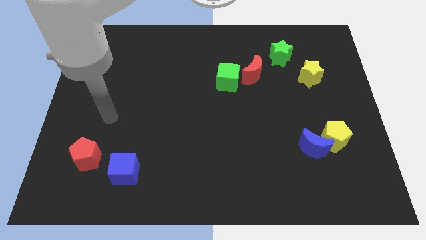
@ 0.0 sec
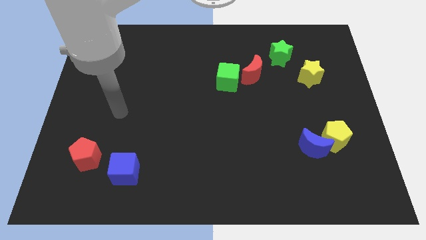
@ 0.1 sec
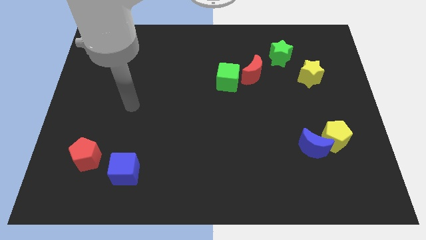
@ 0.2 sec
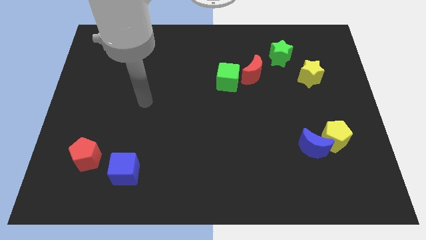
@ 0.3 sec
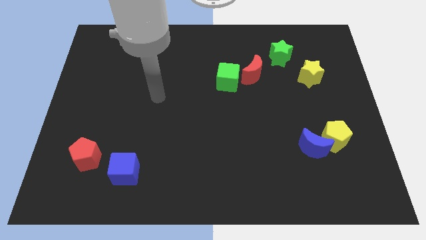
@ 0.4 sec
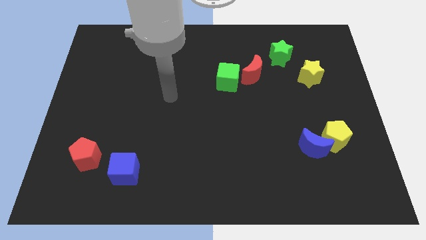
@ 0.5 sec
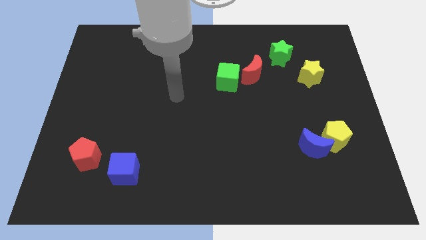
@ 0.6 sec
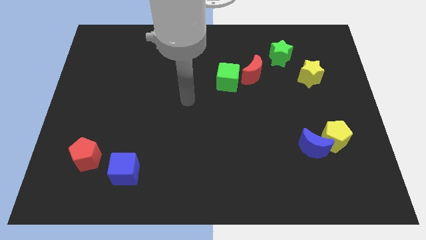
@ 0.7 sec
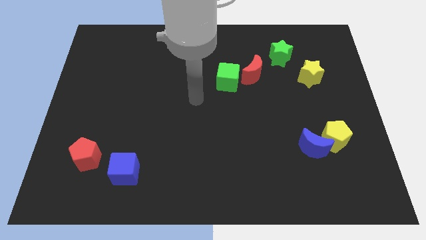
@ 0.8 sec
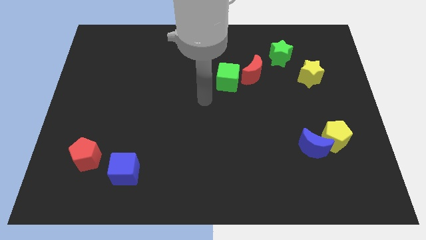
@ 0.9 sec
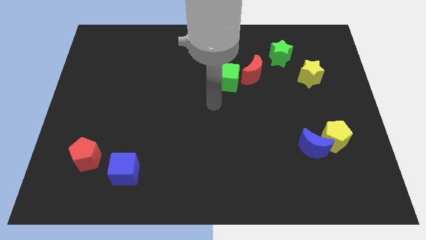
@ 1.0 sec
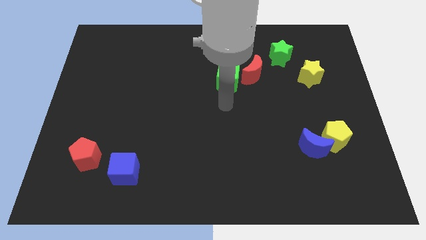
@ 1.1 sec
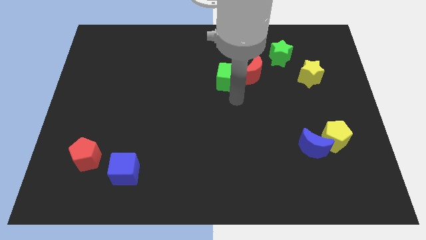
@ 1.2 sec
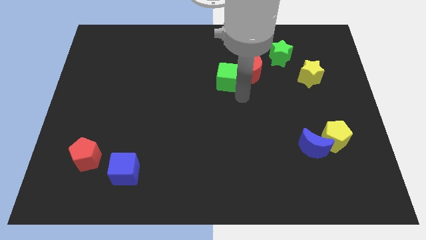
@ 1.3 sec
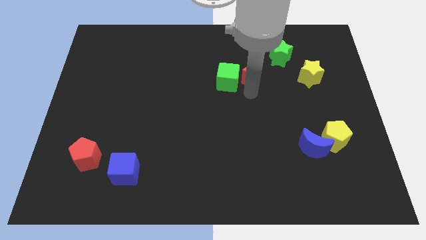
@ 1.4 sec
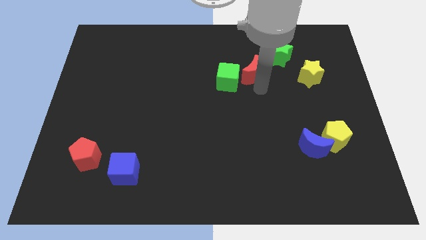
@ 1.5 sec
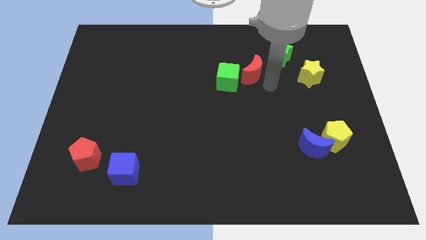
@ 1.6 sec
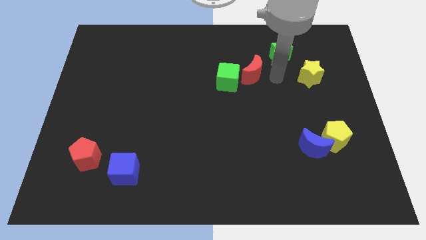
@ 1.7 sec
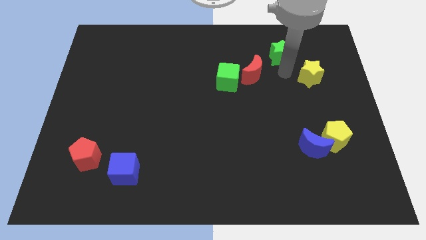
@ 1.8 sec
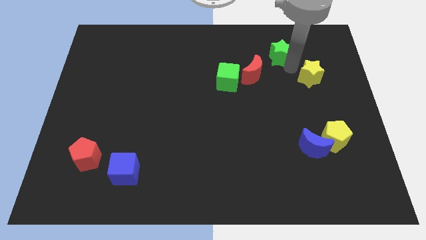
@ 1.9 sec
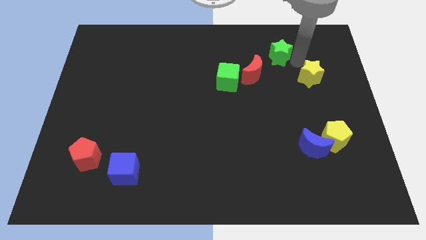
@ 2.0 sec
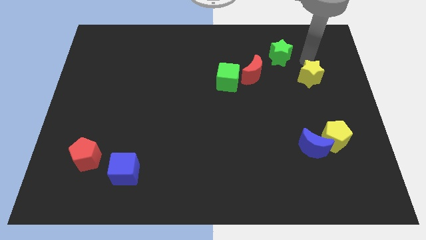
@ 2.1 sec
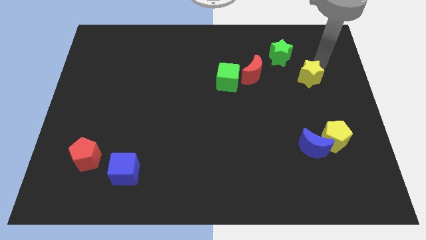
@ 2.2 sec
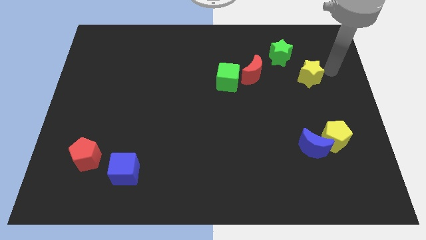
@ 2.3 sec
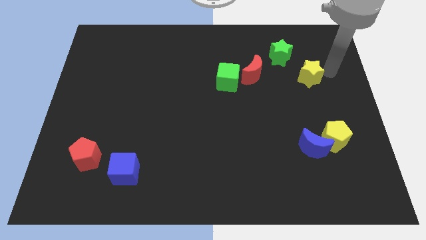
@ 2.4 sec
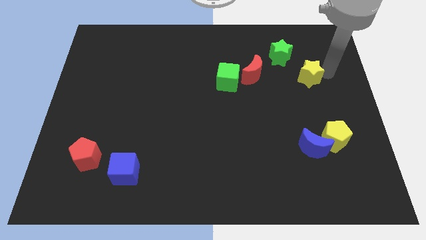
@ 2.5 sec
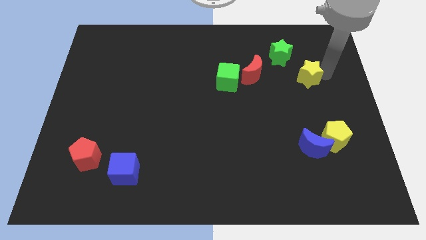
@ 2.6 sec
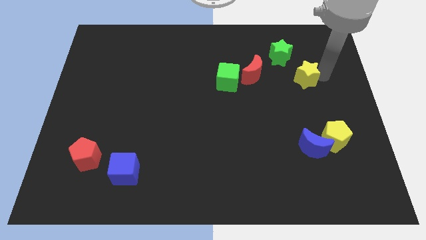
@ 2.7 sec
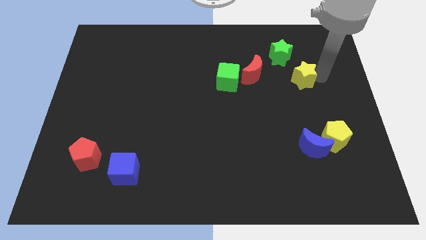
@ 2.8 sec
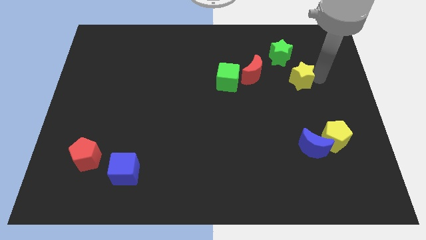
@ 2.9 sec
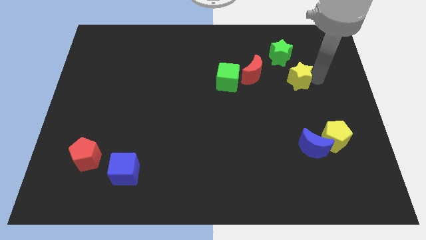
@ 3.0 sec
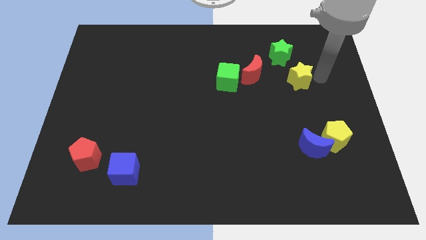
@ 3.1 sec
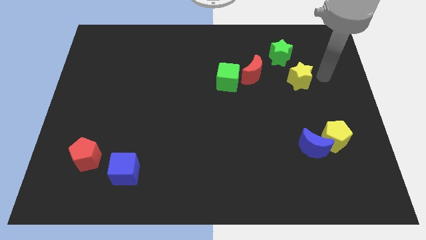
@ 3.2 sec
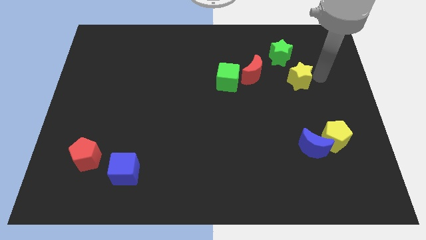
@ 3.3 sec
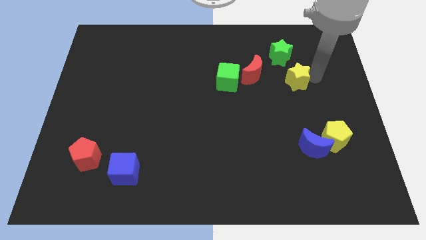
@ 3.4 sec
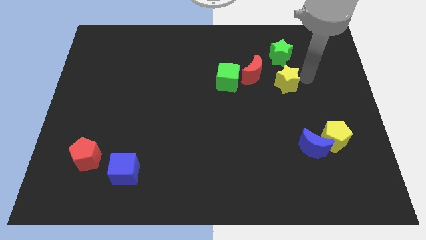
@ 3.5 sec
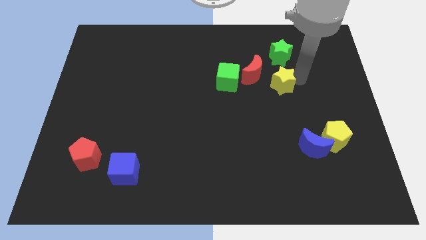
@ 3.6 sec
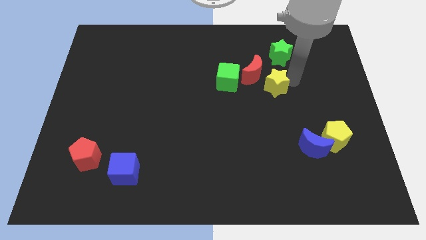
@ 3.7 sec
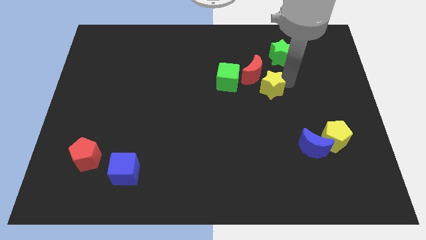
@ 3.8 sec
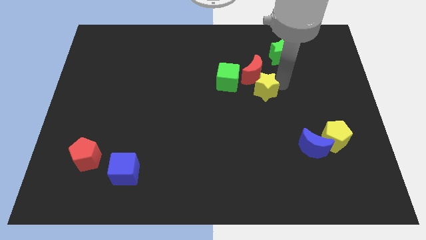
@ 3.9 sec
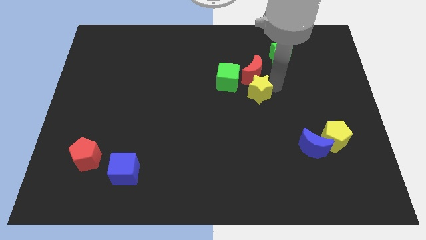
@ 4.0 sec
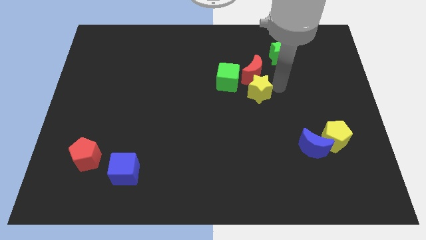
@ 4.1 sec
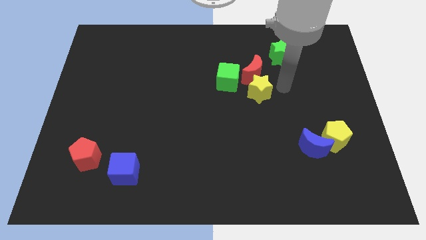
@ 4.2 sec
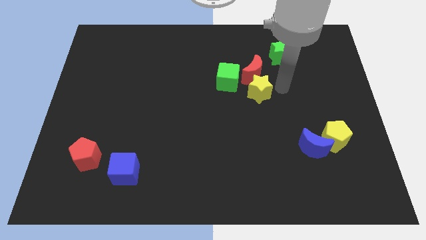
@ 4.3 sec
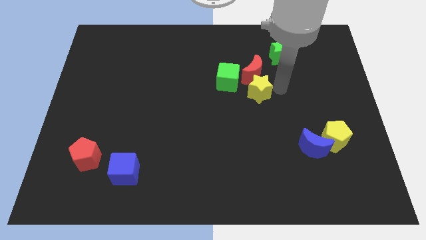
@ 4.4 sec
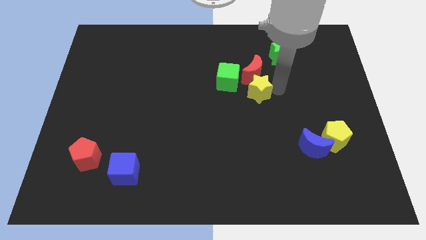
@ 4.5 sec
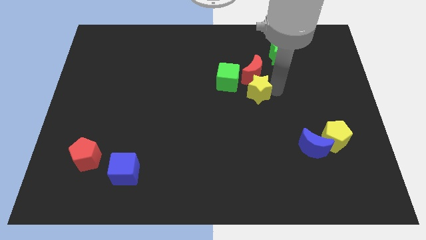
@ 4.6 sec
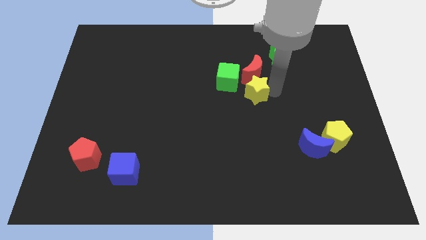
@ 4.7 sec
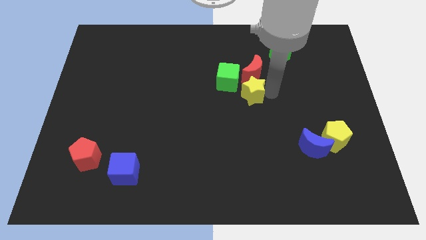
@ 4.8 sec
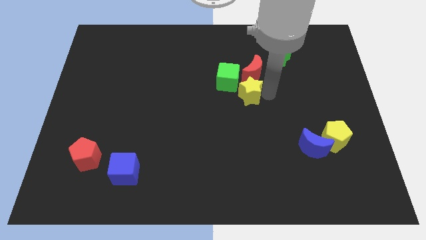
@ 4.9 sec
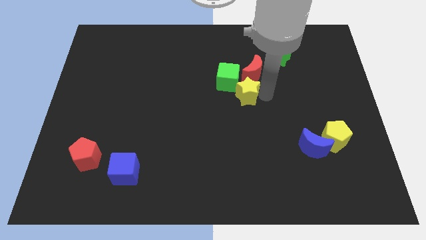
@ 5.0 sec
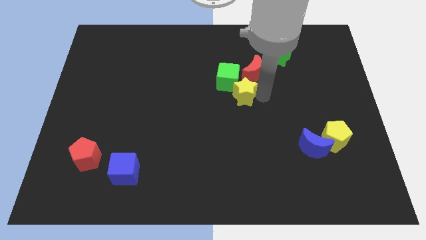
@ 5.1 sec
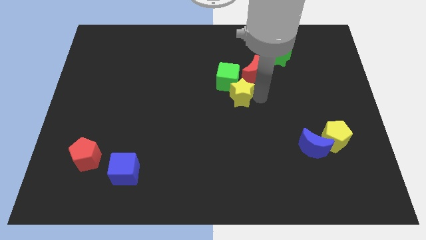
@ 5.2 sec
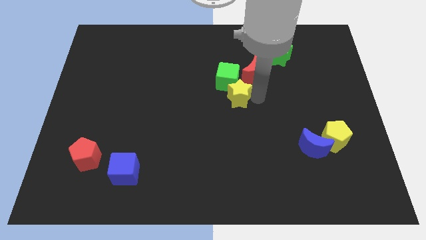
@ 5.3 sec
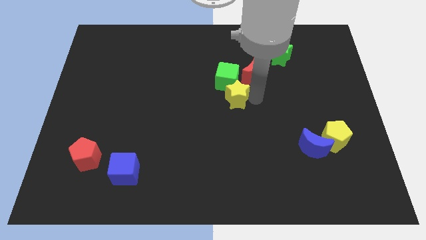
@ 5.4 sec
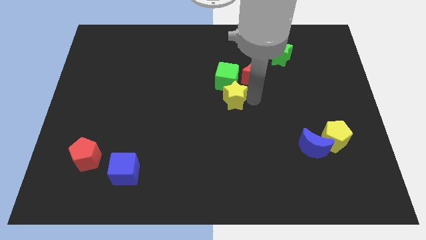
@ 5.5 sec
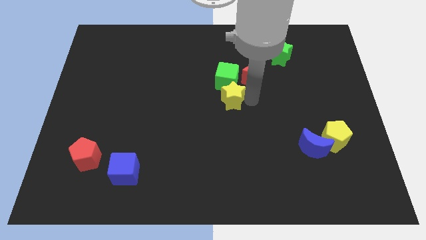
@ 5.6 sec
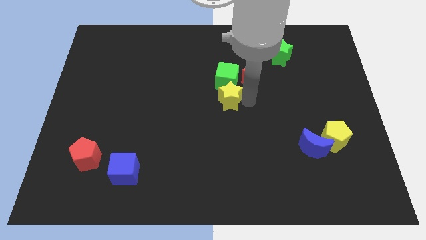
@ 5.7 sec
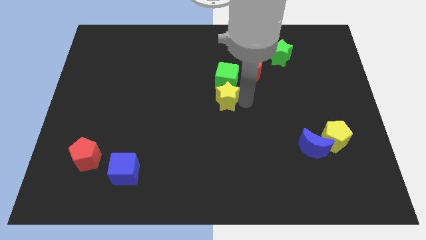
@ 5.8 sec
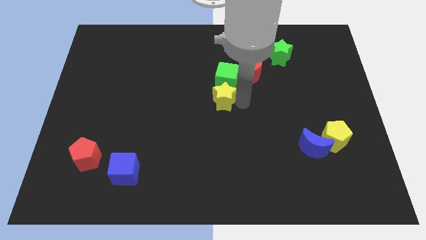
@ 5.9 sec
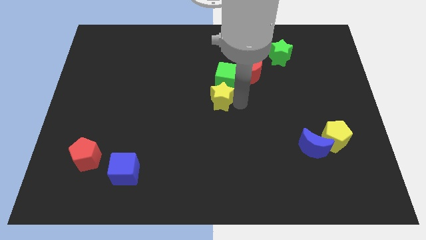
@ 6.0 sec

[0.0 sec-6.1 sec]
slide the yellow star left

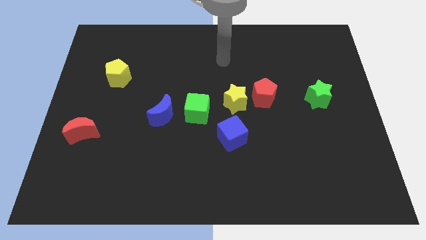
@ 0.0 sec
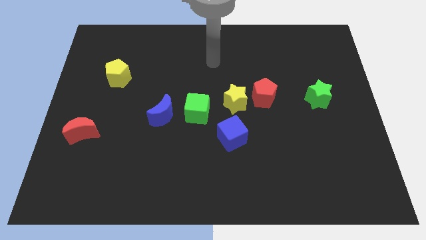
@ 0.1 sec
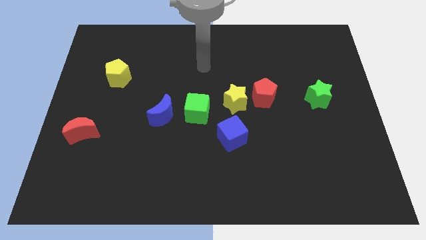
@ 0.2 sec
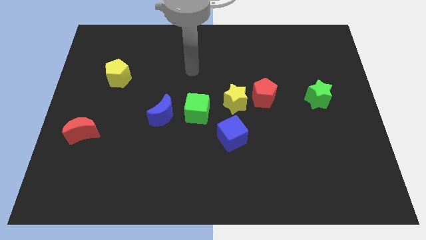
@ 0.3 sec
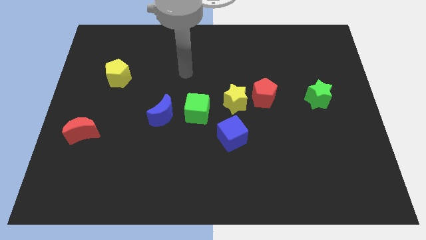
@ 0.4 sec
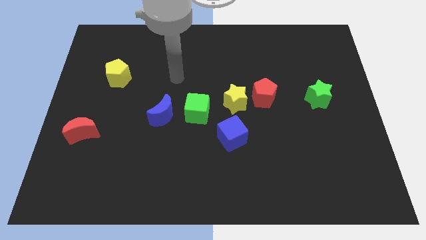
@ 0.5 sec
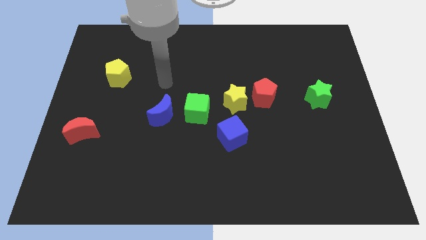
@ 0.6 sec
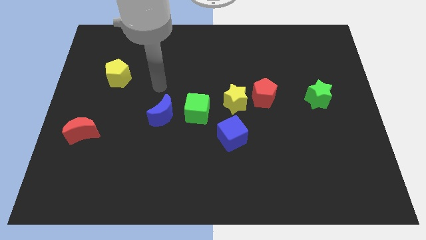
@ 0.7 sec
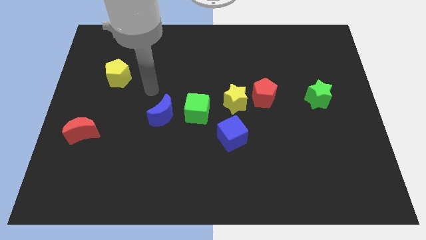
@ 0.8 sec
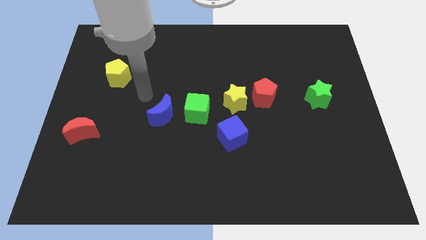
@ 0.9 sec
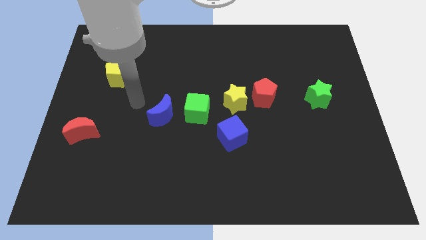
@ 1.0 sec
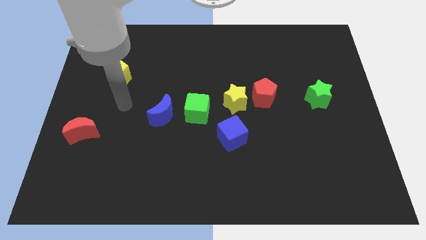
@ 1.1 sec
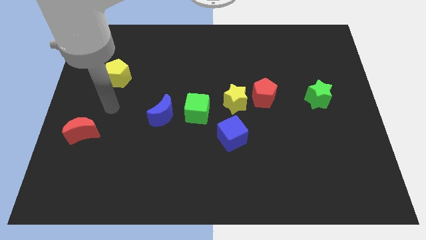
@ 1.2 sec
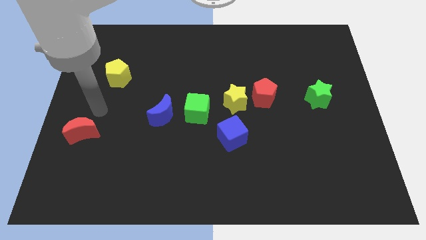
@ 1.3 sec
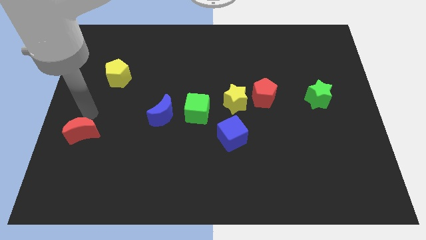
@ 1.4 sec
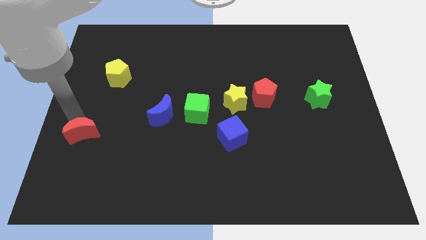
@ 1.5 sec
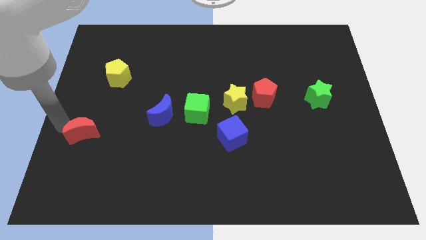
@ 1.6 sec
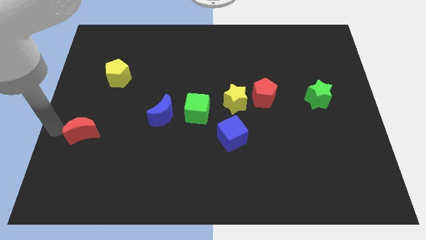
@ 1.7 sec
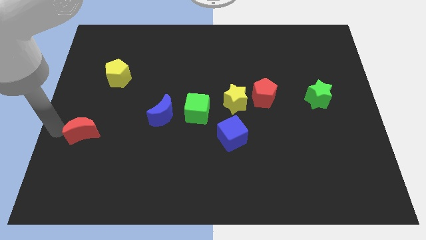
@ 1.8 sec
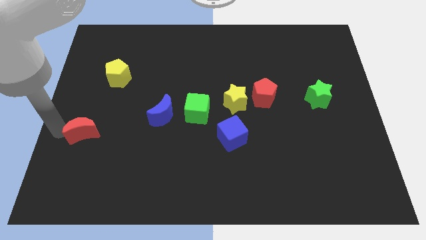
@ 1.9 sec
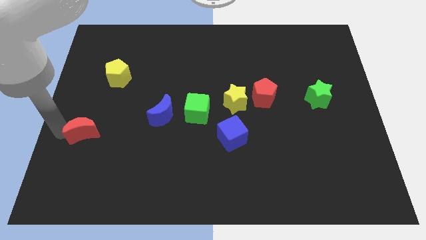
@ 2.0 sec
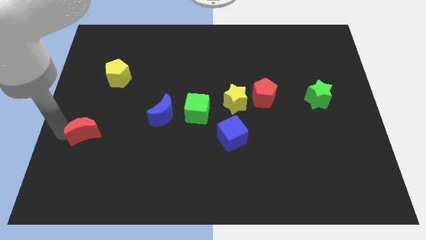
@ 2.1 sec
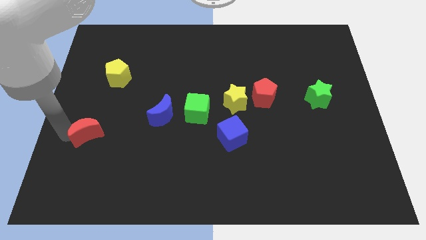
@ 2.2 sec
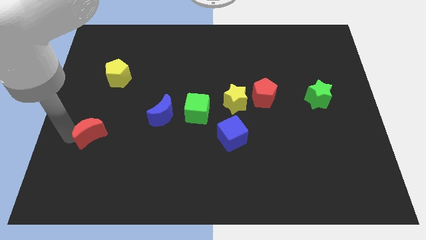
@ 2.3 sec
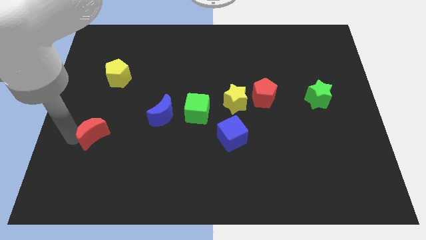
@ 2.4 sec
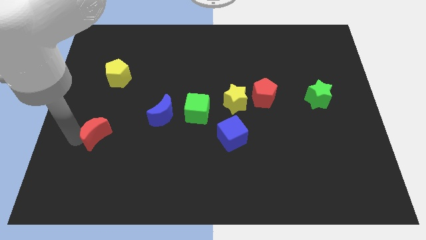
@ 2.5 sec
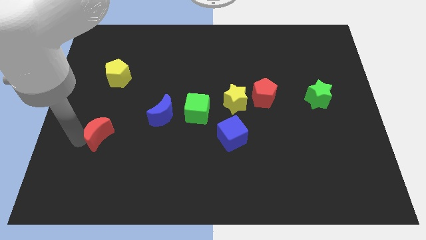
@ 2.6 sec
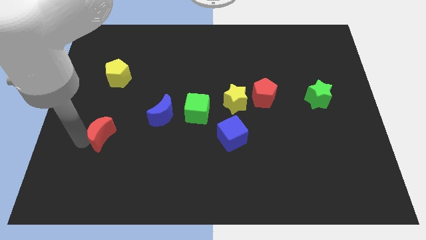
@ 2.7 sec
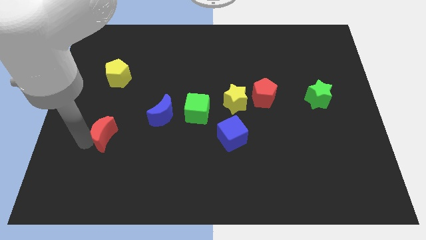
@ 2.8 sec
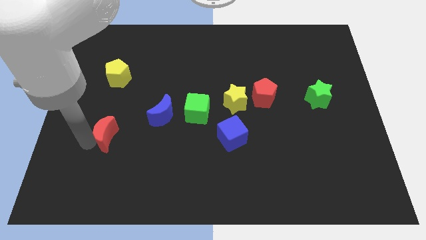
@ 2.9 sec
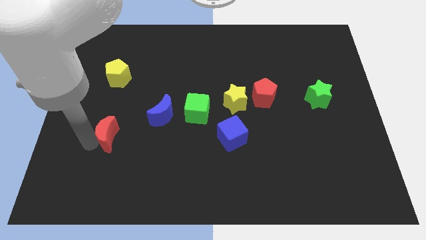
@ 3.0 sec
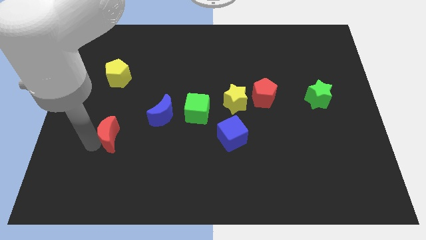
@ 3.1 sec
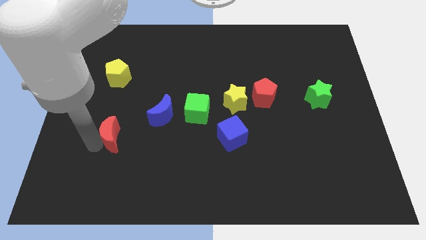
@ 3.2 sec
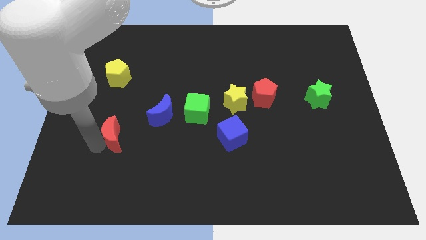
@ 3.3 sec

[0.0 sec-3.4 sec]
slightly push the red moon to the right
